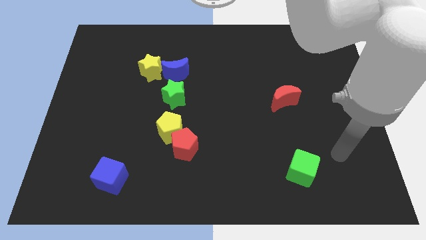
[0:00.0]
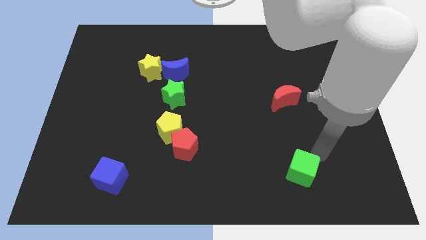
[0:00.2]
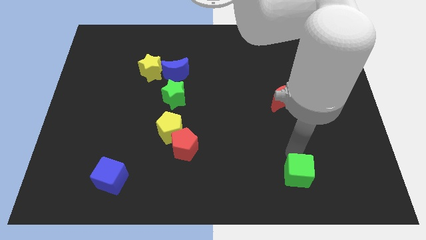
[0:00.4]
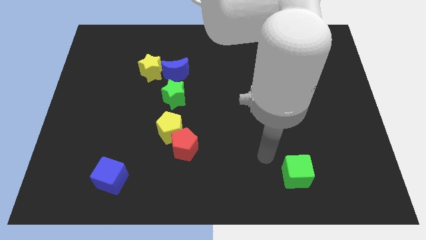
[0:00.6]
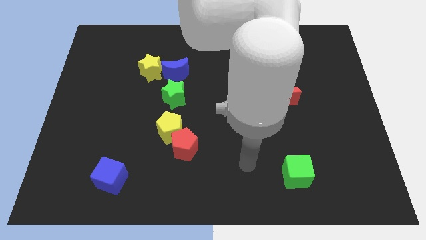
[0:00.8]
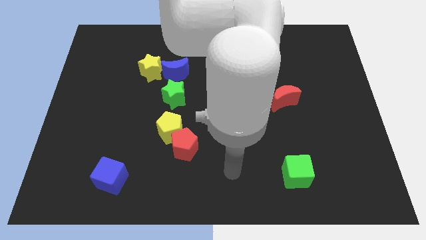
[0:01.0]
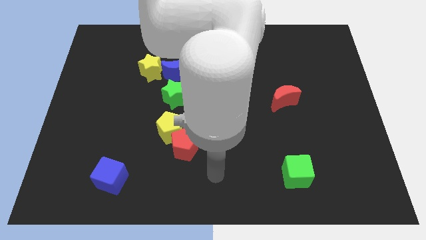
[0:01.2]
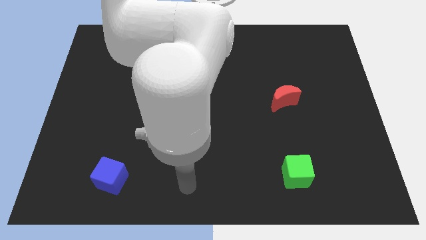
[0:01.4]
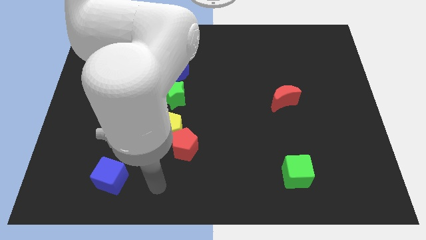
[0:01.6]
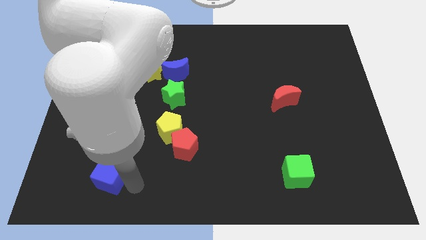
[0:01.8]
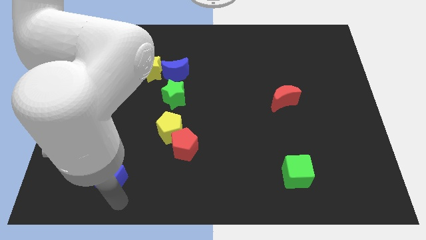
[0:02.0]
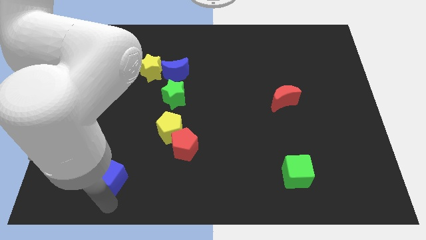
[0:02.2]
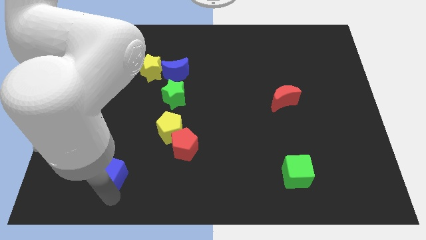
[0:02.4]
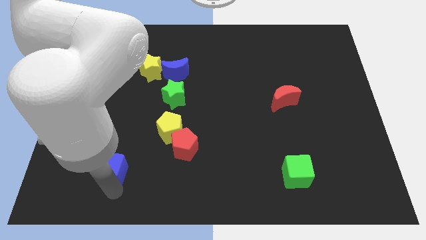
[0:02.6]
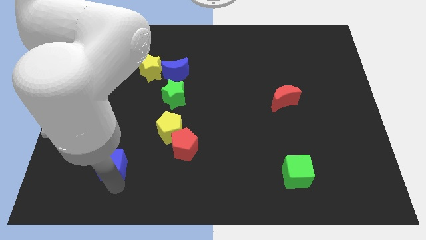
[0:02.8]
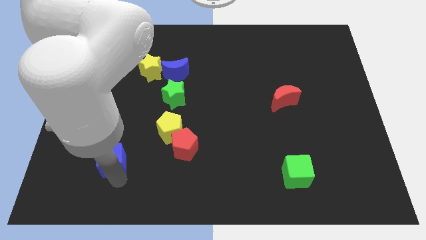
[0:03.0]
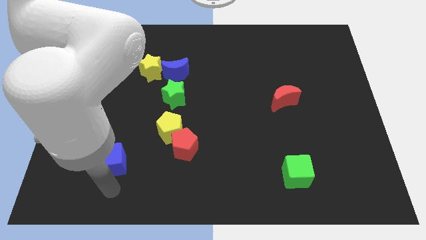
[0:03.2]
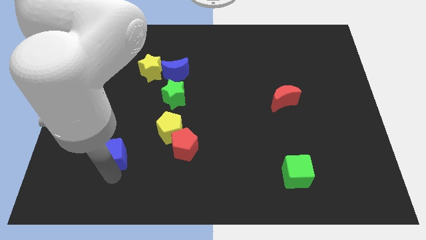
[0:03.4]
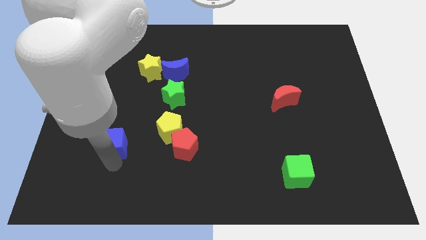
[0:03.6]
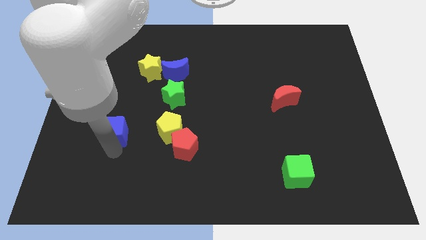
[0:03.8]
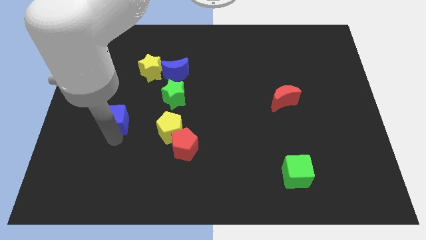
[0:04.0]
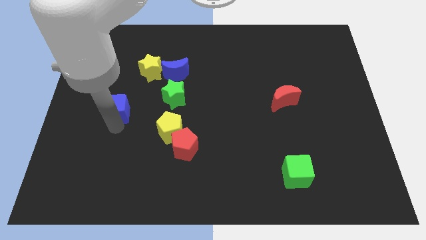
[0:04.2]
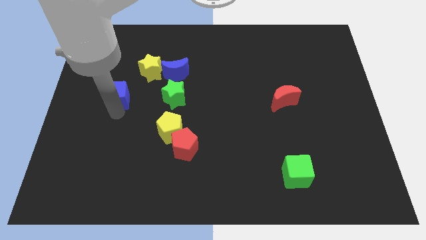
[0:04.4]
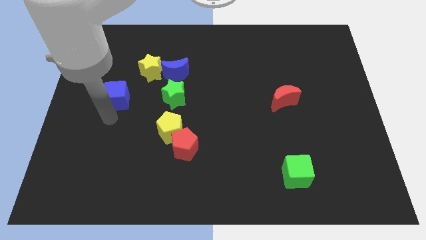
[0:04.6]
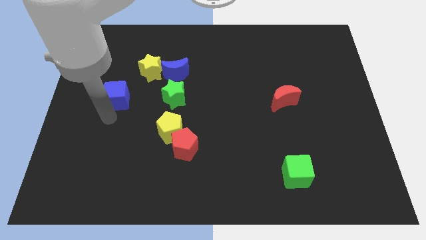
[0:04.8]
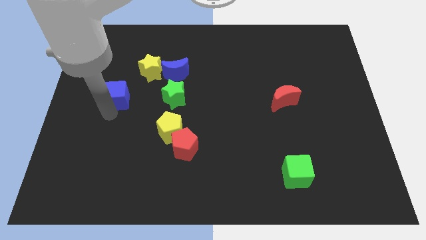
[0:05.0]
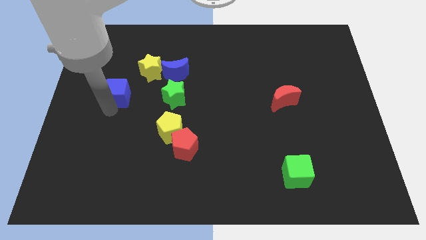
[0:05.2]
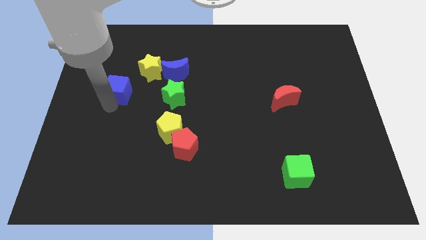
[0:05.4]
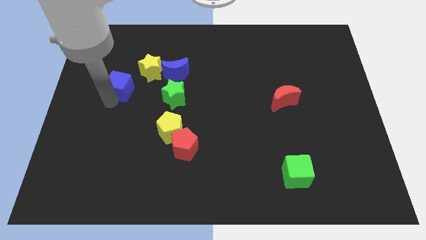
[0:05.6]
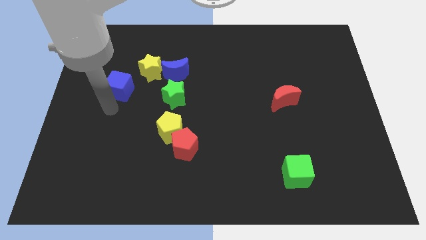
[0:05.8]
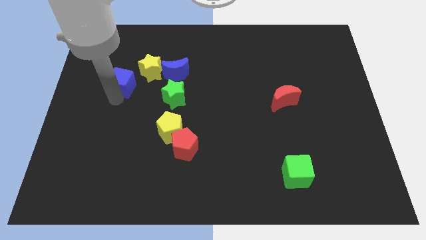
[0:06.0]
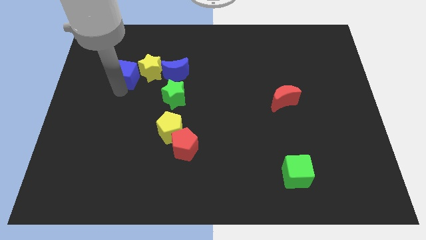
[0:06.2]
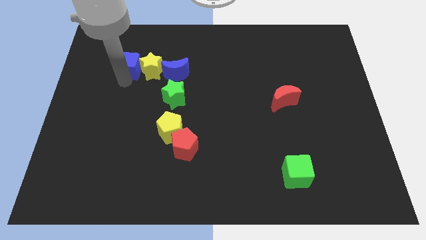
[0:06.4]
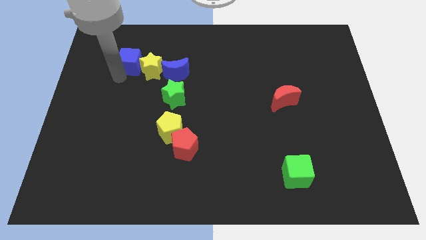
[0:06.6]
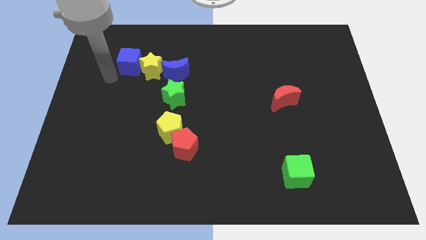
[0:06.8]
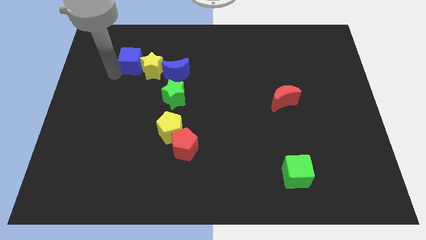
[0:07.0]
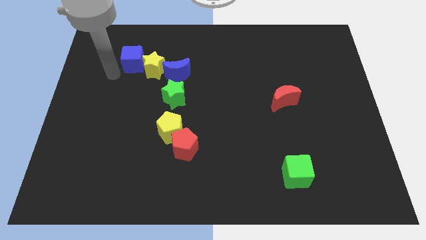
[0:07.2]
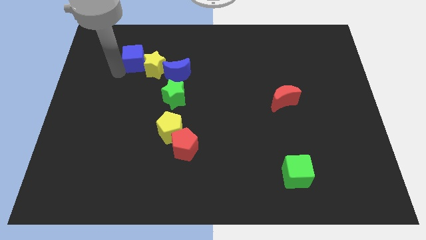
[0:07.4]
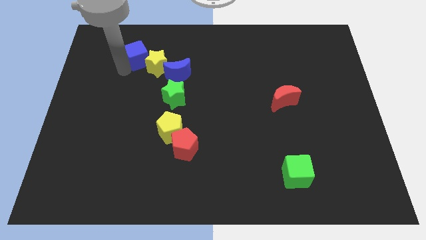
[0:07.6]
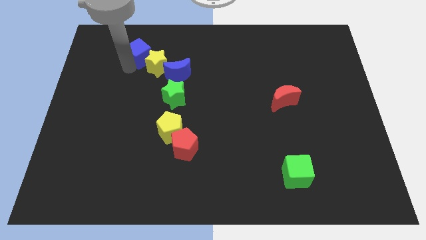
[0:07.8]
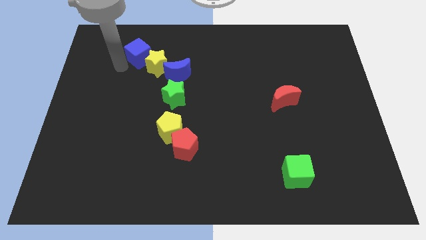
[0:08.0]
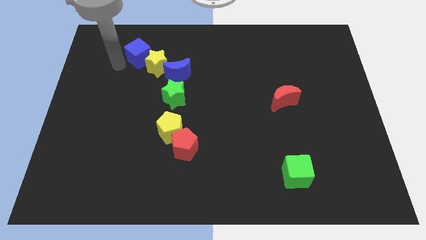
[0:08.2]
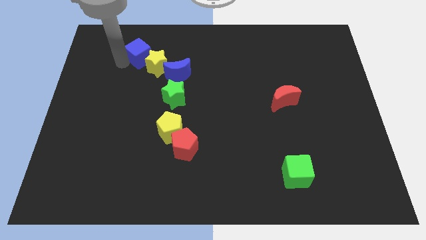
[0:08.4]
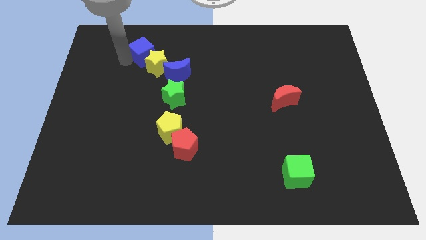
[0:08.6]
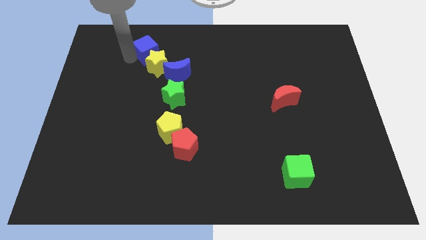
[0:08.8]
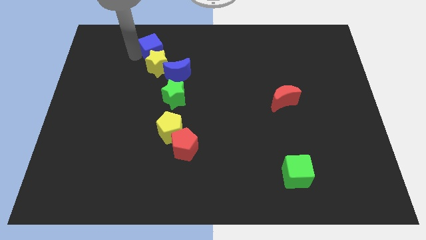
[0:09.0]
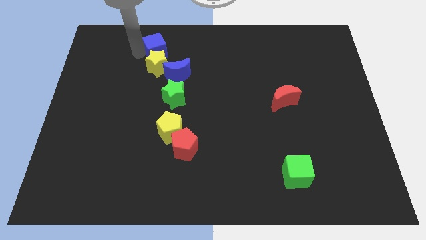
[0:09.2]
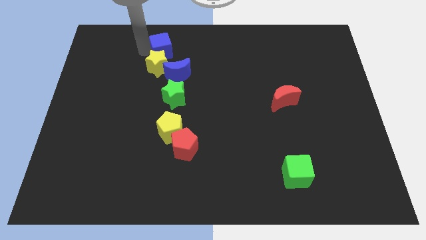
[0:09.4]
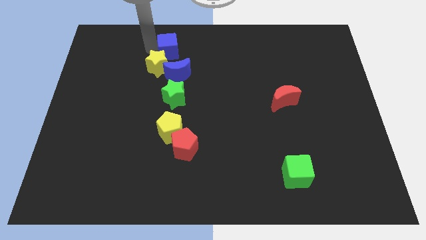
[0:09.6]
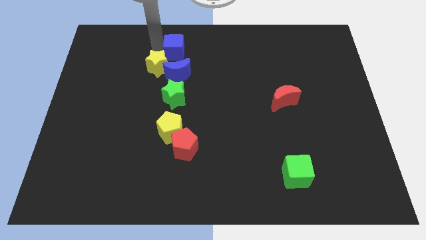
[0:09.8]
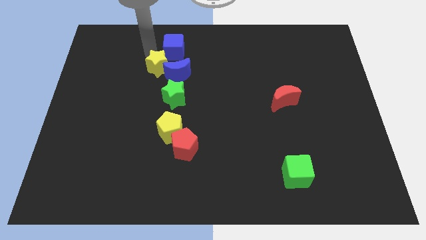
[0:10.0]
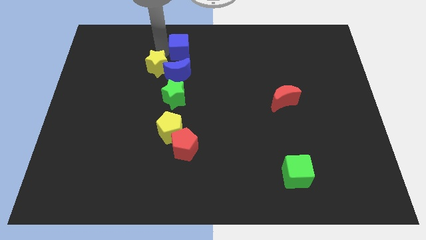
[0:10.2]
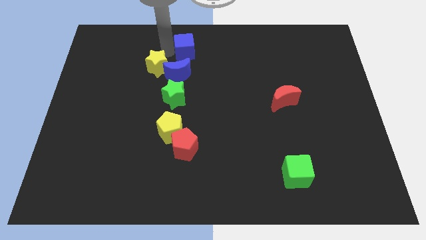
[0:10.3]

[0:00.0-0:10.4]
push the blue cube to the top
